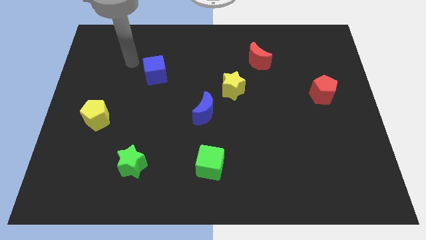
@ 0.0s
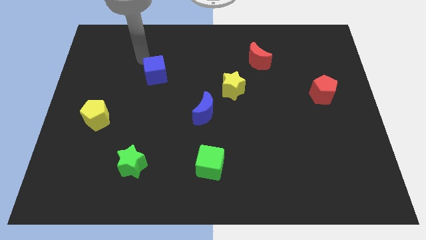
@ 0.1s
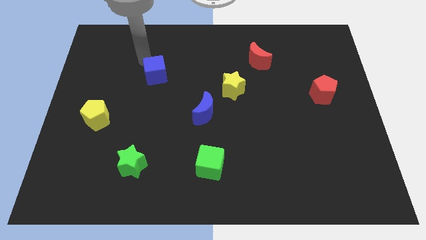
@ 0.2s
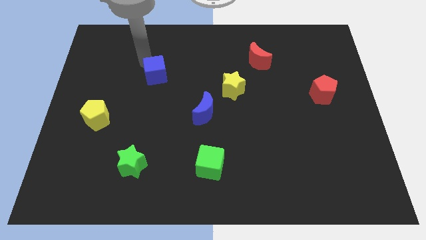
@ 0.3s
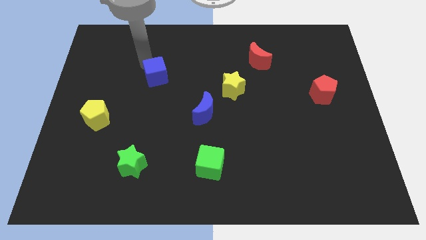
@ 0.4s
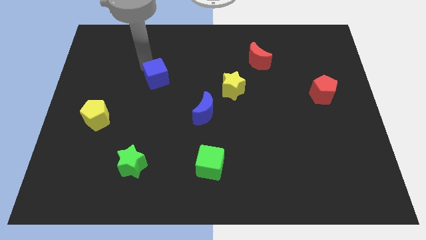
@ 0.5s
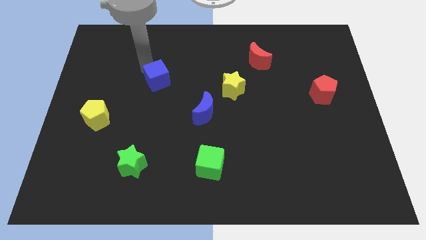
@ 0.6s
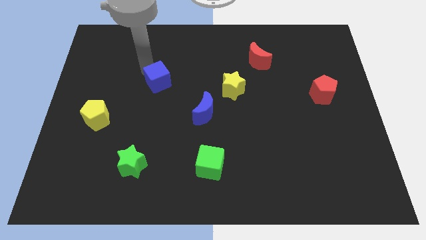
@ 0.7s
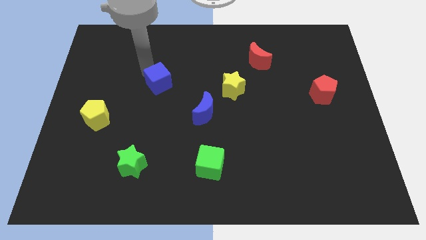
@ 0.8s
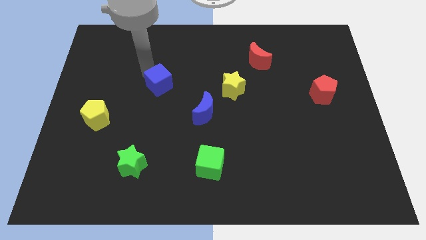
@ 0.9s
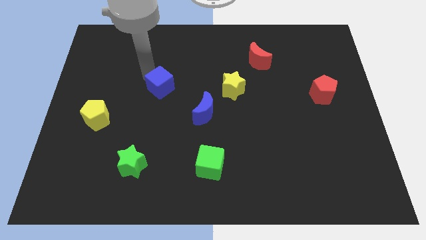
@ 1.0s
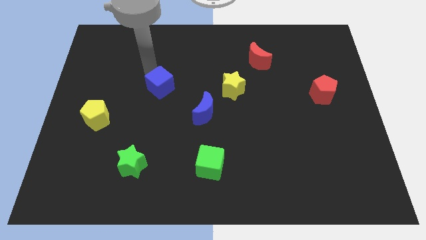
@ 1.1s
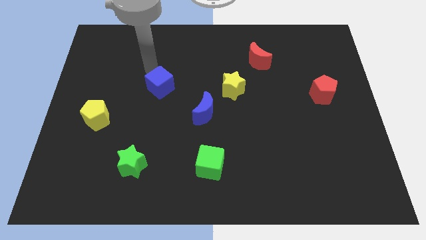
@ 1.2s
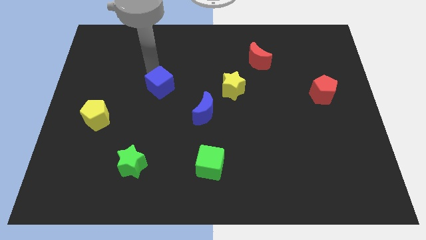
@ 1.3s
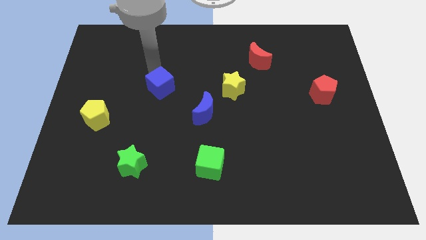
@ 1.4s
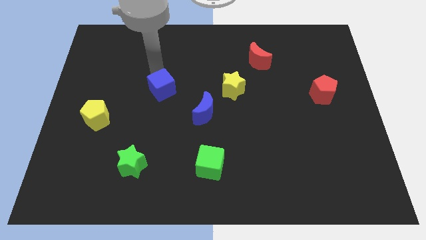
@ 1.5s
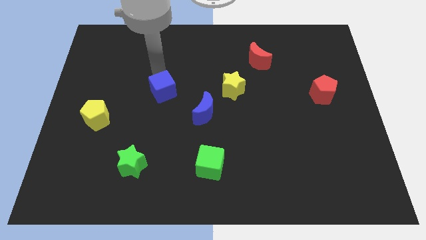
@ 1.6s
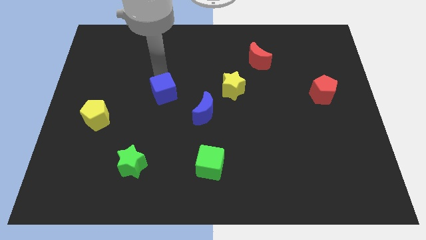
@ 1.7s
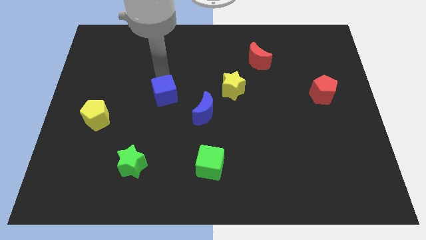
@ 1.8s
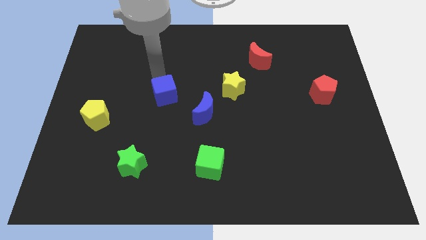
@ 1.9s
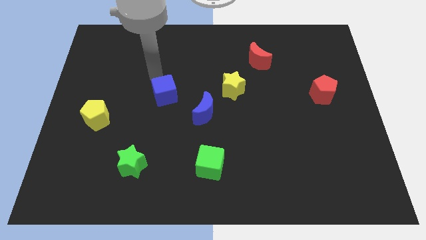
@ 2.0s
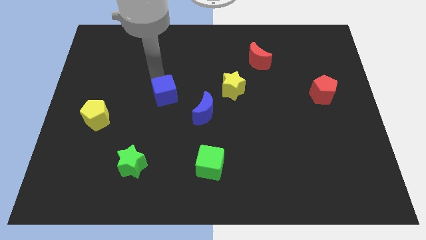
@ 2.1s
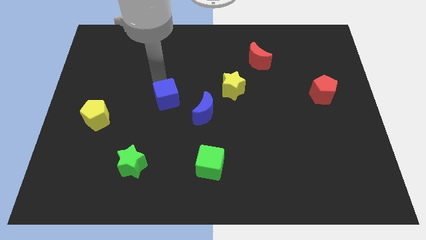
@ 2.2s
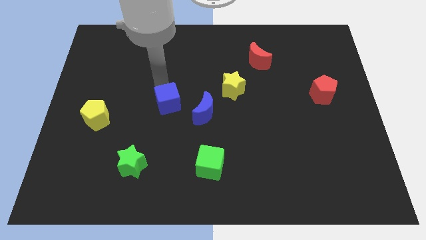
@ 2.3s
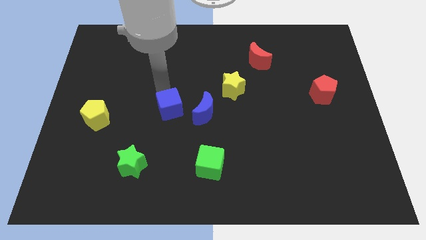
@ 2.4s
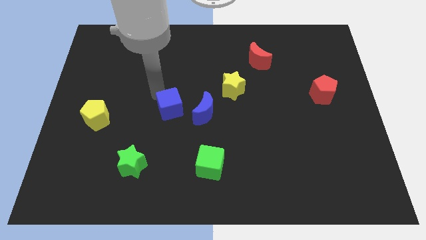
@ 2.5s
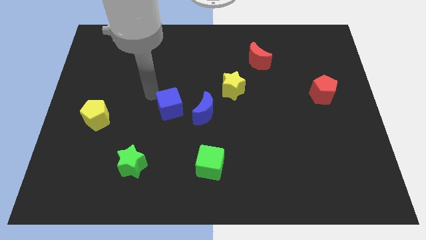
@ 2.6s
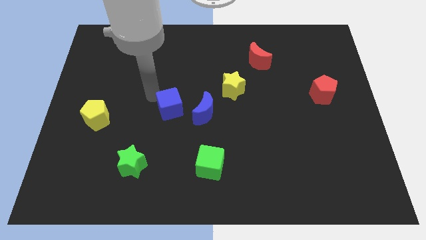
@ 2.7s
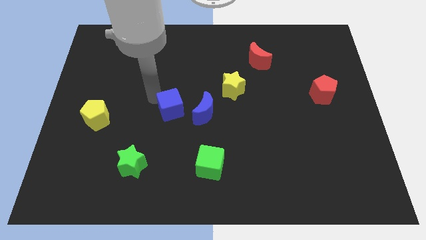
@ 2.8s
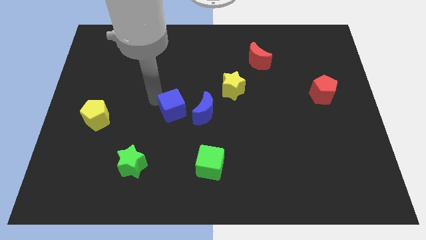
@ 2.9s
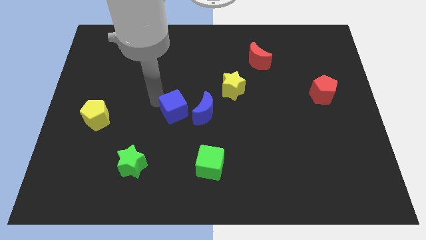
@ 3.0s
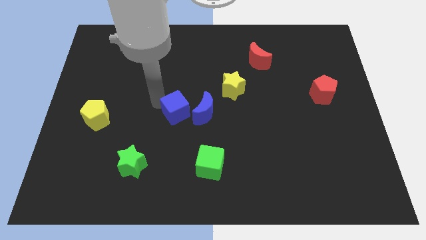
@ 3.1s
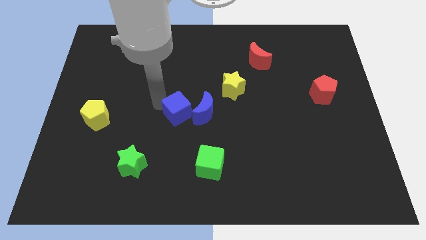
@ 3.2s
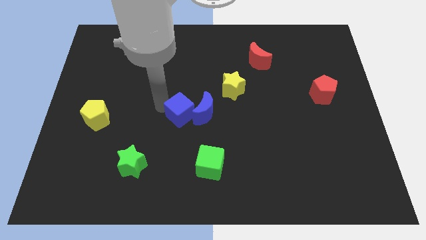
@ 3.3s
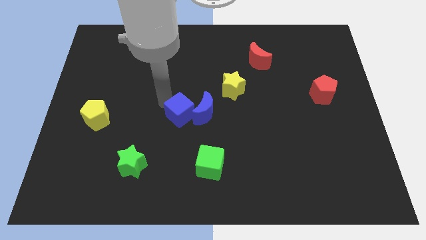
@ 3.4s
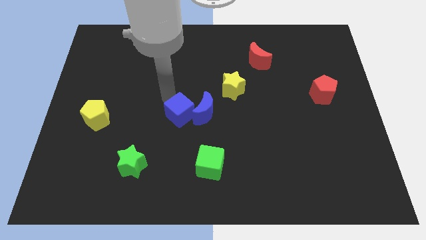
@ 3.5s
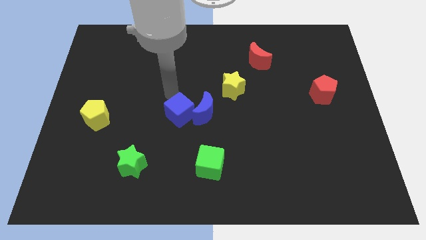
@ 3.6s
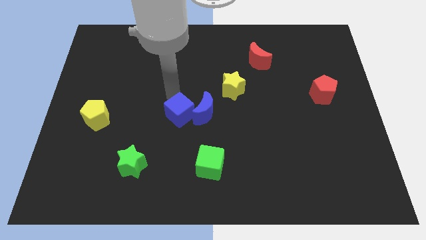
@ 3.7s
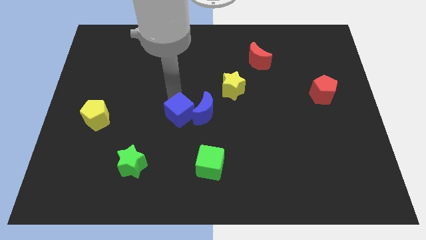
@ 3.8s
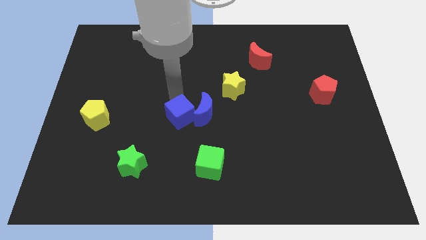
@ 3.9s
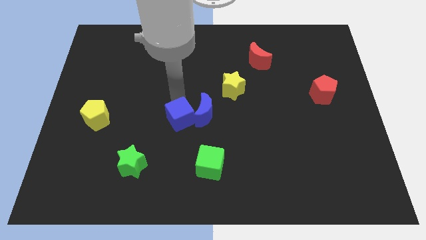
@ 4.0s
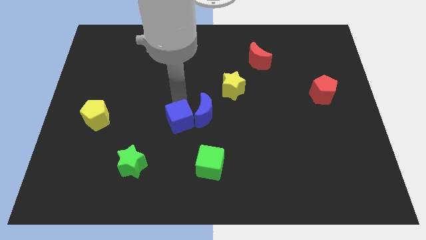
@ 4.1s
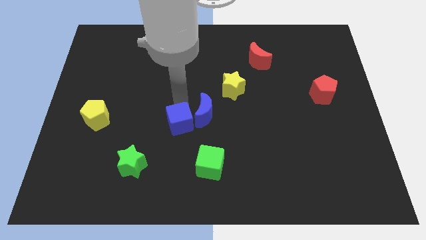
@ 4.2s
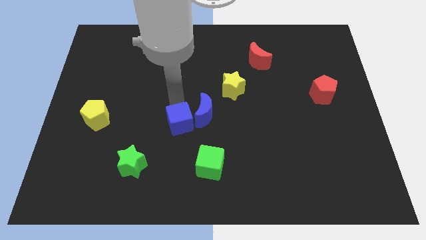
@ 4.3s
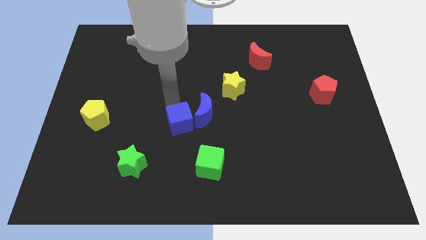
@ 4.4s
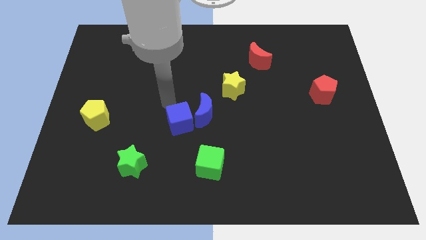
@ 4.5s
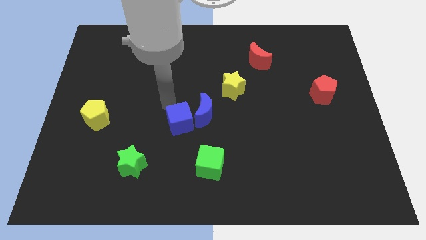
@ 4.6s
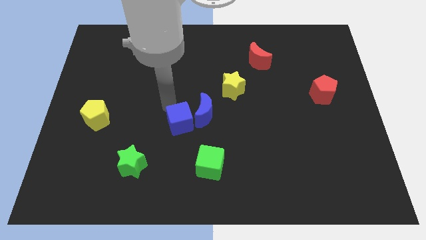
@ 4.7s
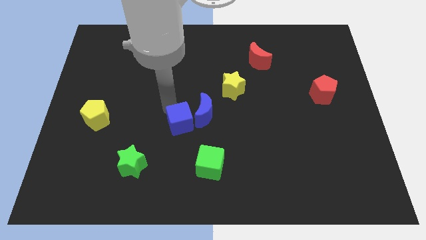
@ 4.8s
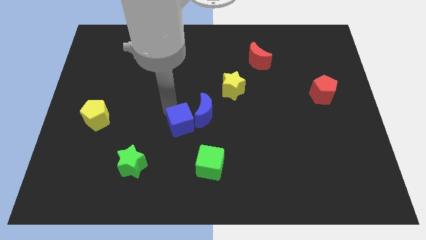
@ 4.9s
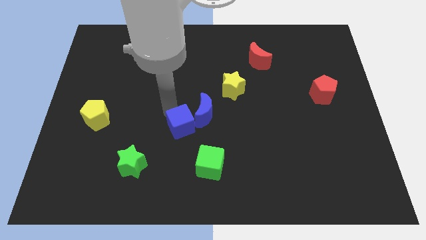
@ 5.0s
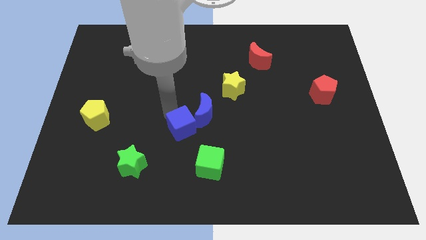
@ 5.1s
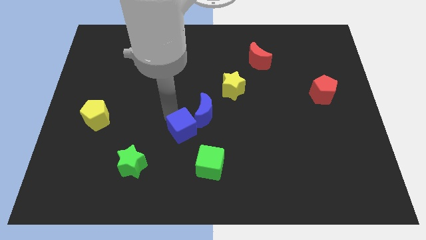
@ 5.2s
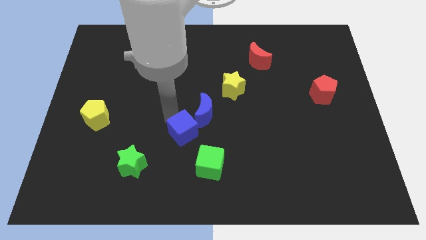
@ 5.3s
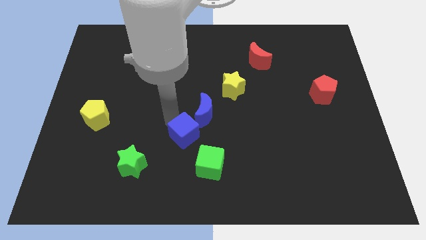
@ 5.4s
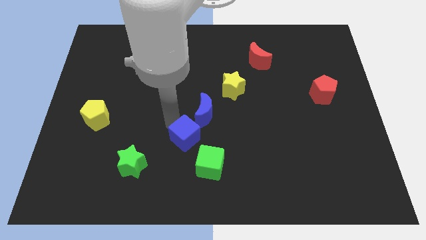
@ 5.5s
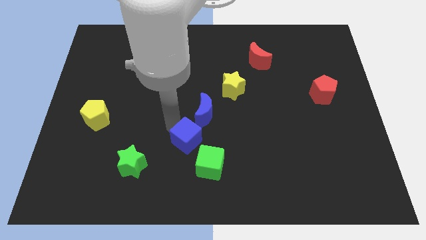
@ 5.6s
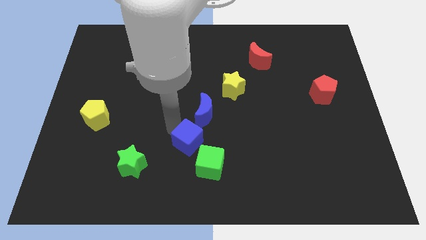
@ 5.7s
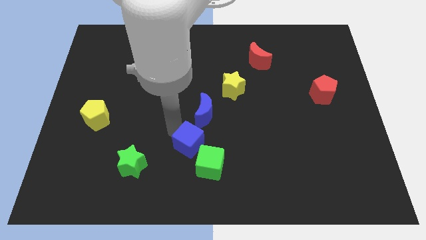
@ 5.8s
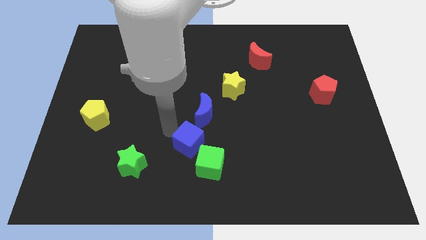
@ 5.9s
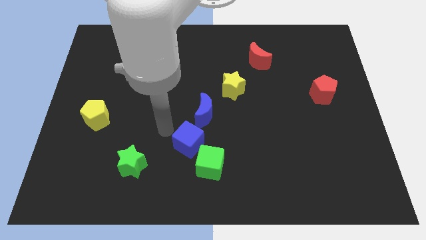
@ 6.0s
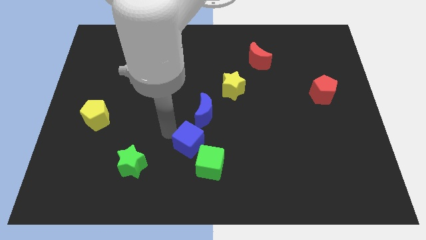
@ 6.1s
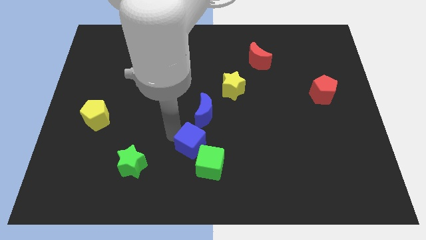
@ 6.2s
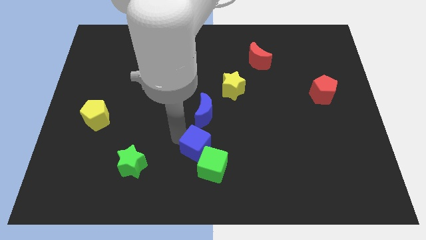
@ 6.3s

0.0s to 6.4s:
slide the blue cube towards the green cube

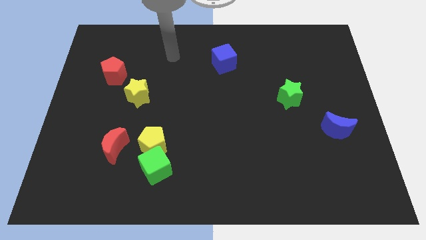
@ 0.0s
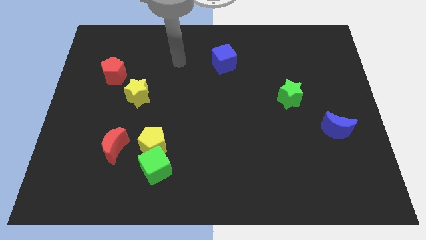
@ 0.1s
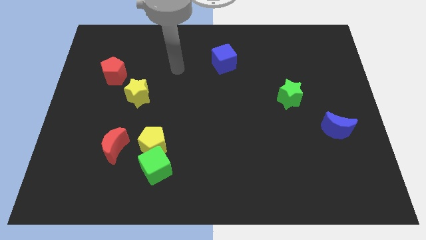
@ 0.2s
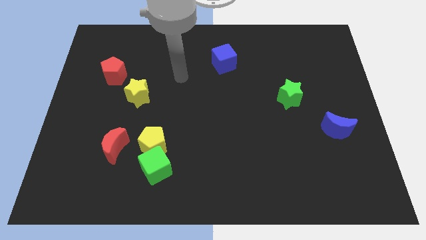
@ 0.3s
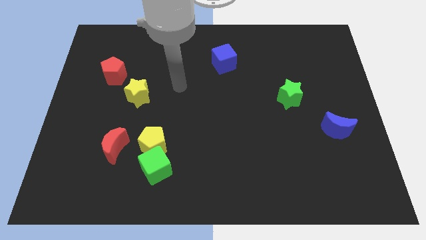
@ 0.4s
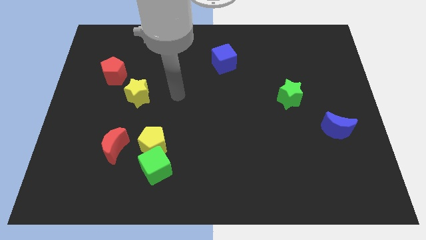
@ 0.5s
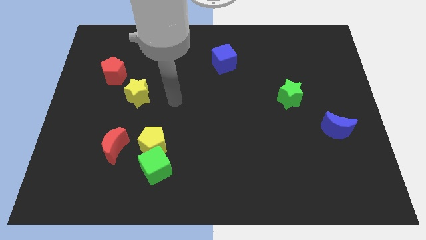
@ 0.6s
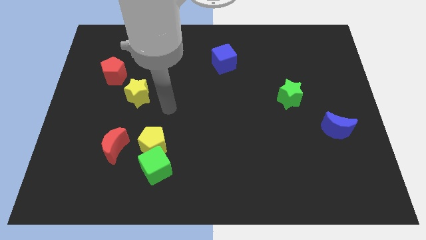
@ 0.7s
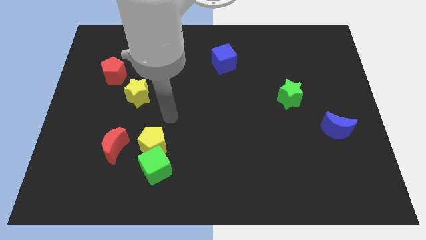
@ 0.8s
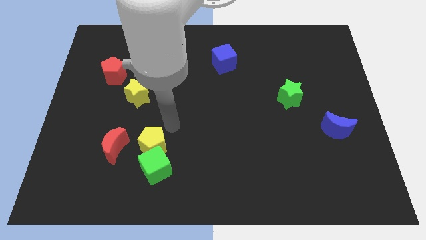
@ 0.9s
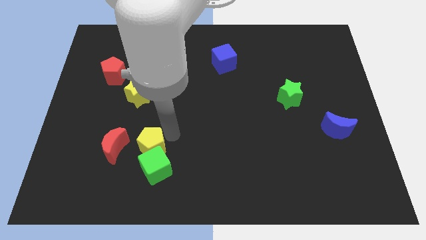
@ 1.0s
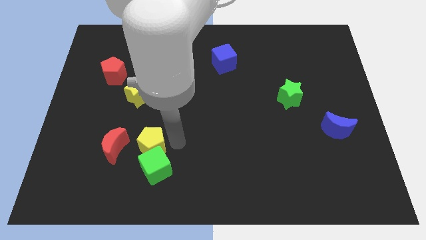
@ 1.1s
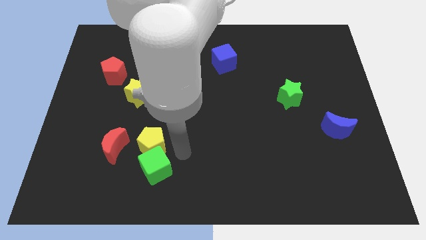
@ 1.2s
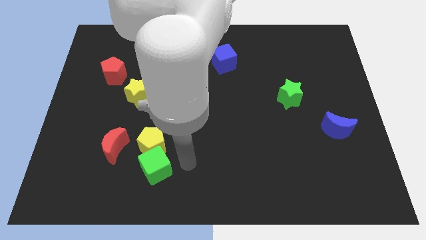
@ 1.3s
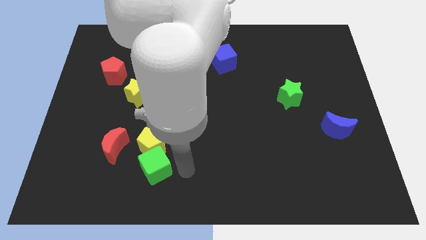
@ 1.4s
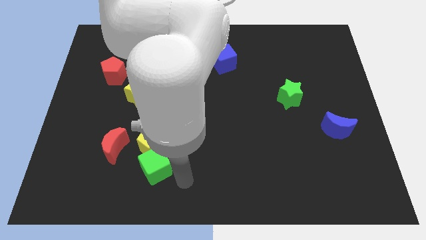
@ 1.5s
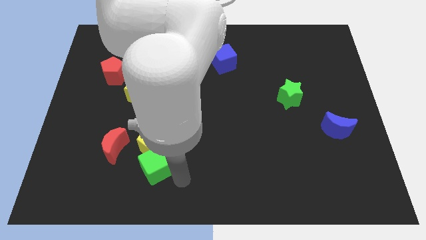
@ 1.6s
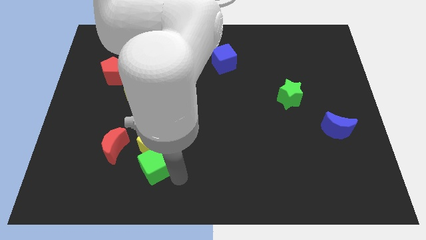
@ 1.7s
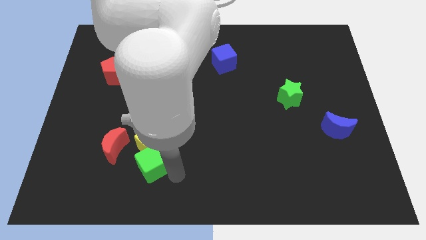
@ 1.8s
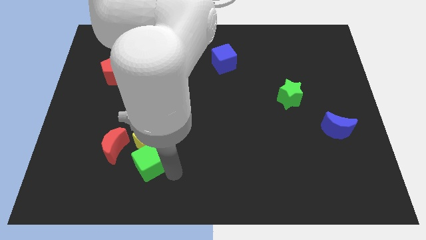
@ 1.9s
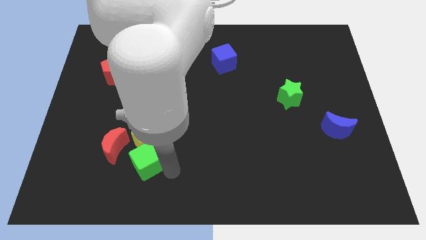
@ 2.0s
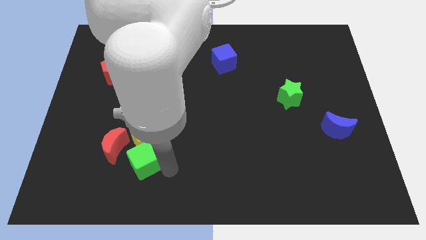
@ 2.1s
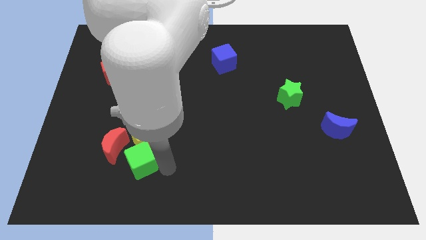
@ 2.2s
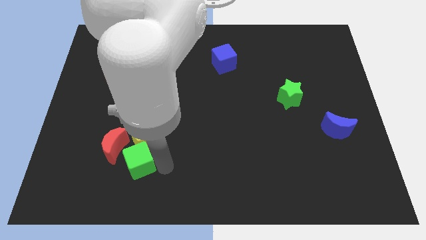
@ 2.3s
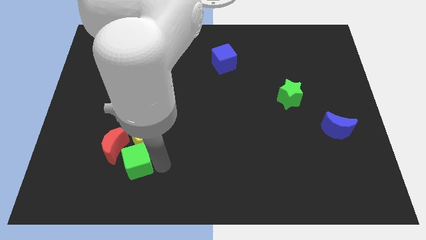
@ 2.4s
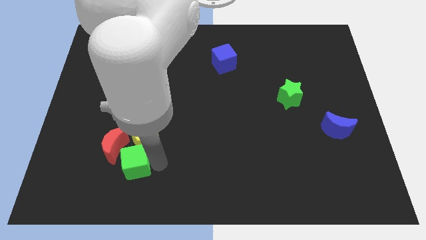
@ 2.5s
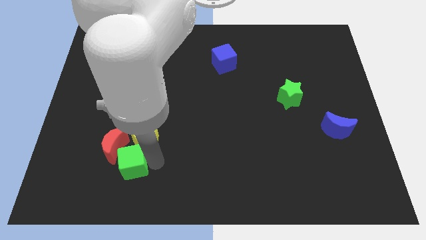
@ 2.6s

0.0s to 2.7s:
slide the green cube close to the red moon
